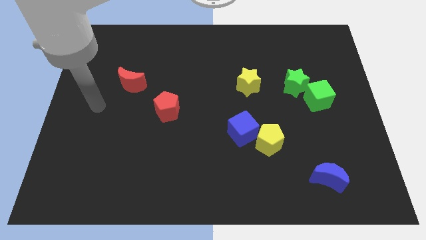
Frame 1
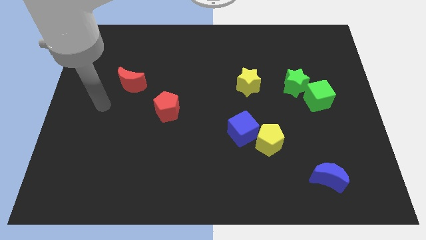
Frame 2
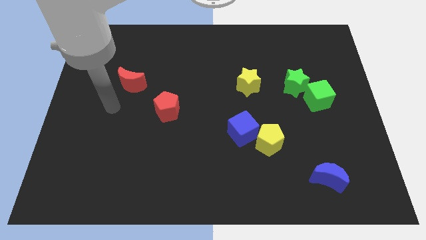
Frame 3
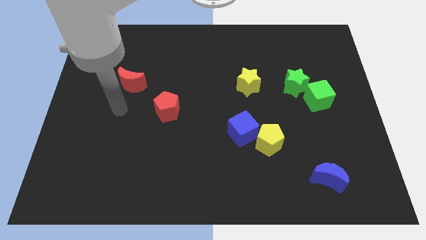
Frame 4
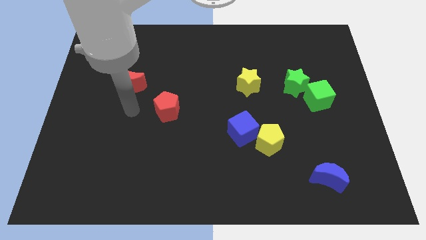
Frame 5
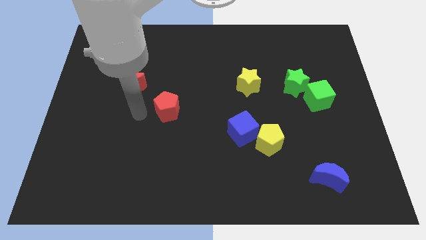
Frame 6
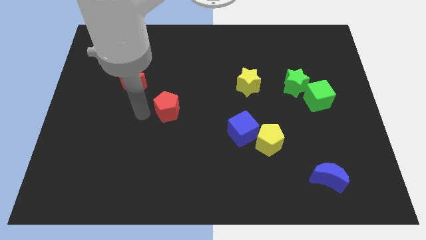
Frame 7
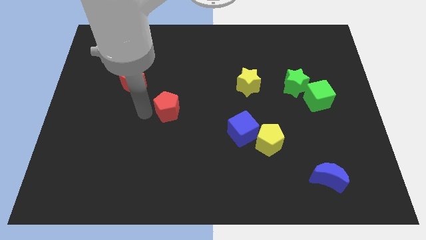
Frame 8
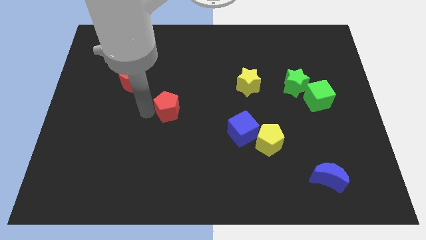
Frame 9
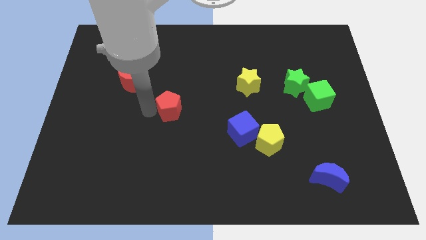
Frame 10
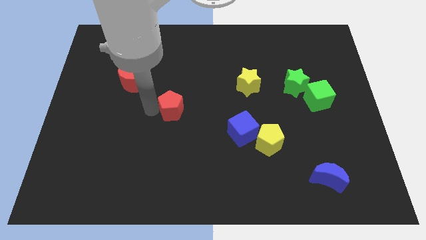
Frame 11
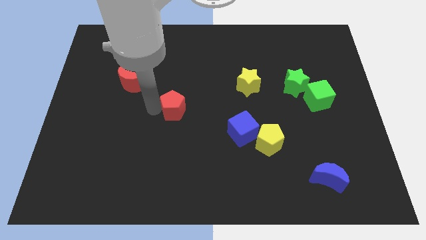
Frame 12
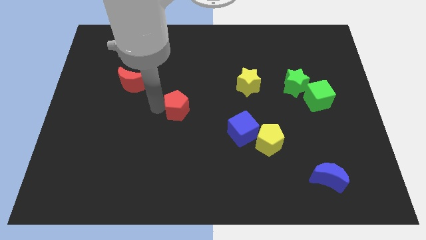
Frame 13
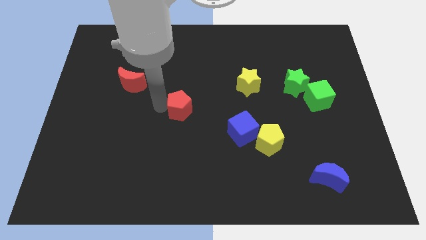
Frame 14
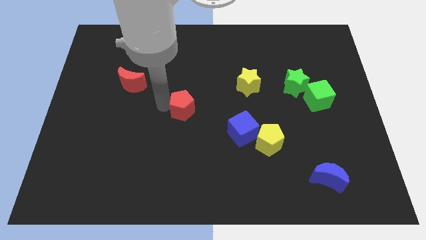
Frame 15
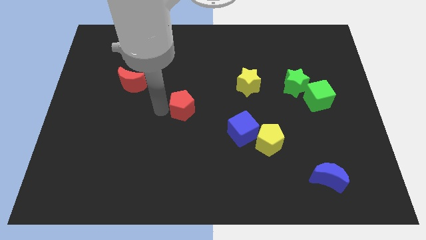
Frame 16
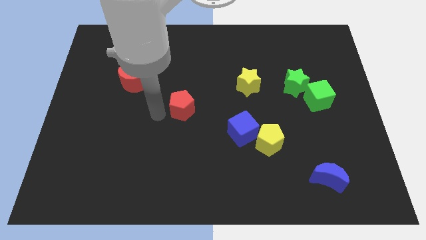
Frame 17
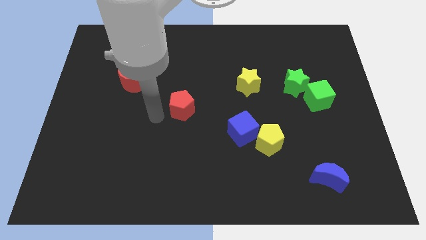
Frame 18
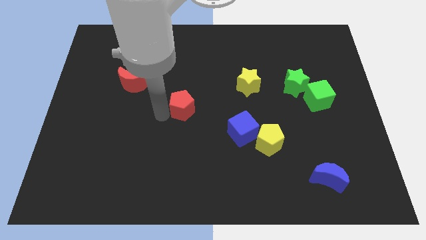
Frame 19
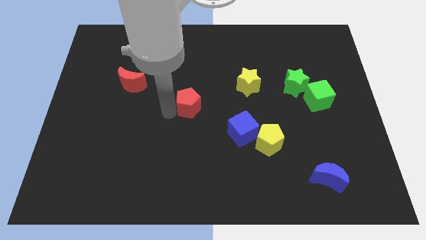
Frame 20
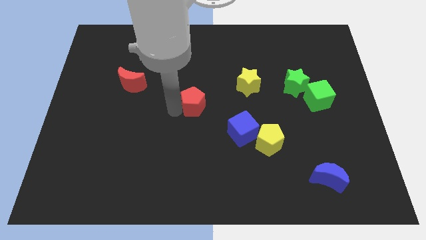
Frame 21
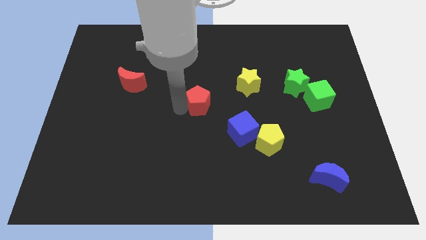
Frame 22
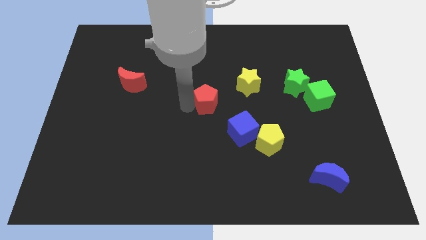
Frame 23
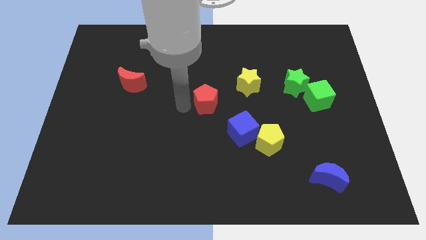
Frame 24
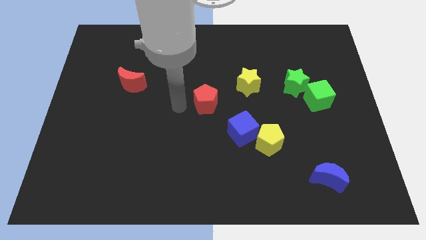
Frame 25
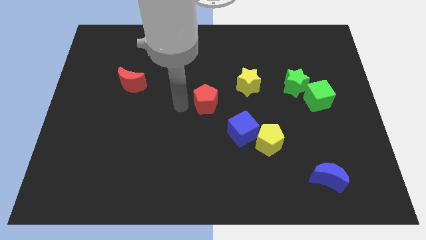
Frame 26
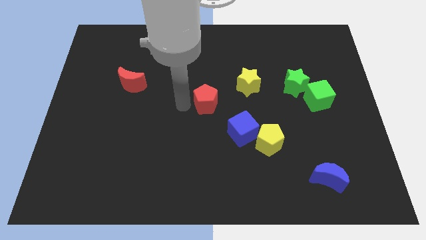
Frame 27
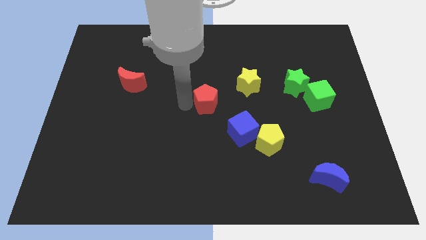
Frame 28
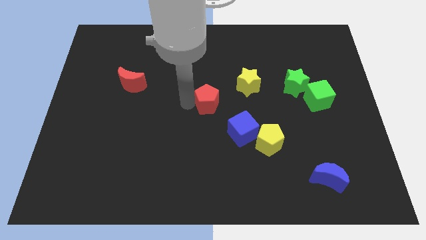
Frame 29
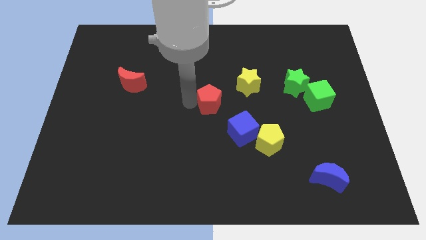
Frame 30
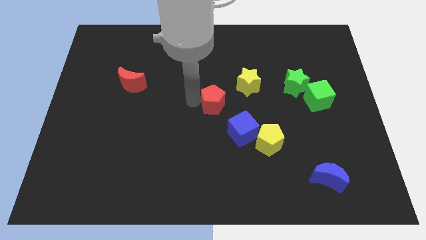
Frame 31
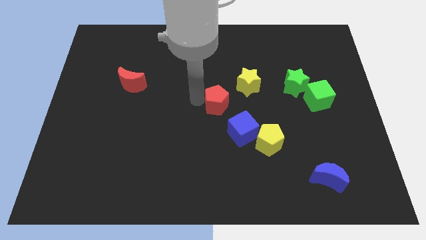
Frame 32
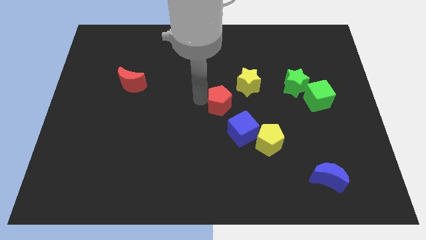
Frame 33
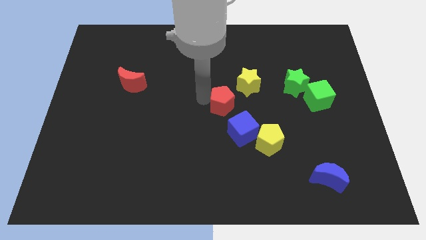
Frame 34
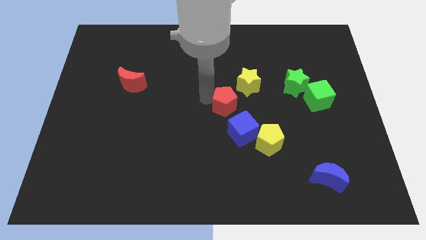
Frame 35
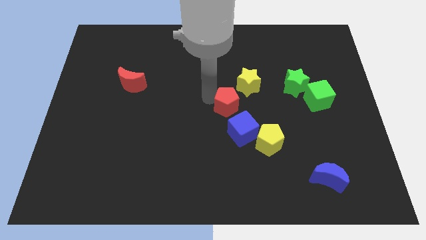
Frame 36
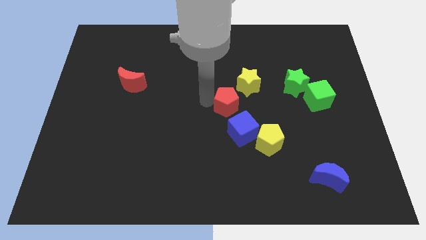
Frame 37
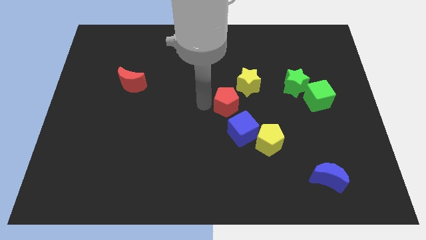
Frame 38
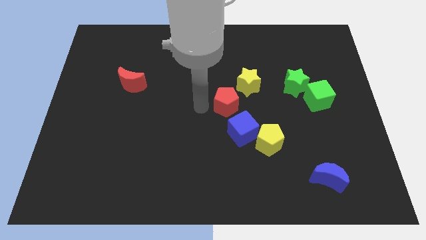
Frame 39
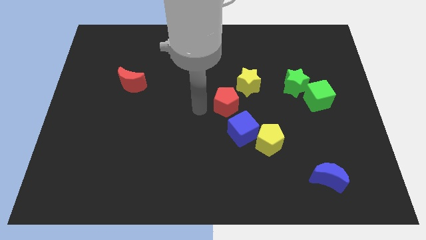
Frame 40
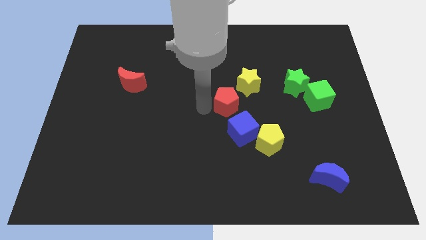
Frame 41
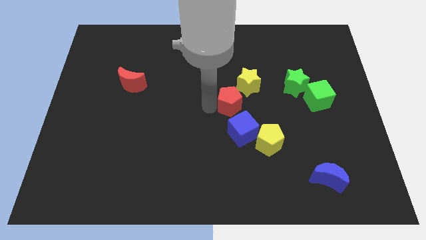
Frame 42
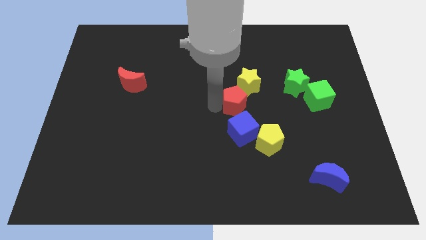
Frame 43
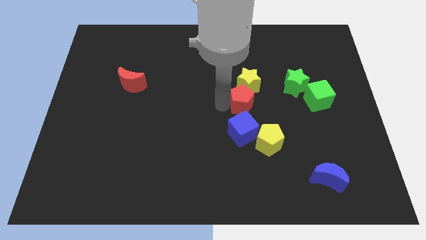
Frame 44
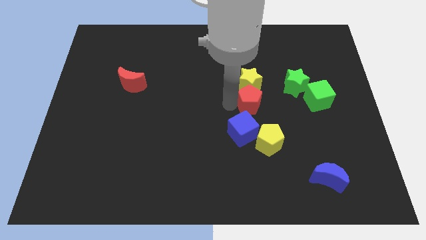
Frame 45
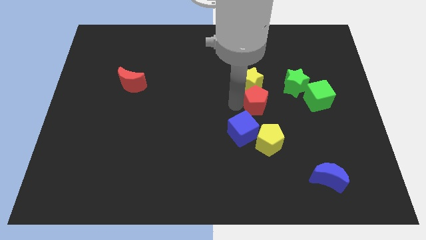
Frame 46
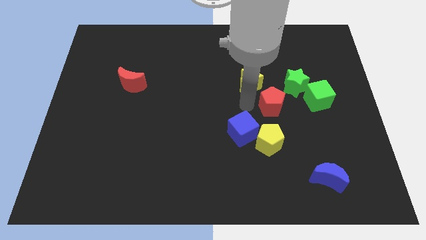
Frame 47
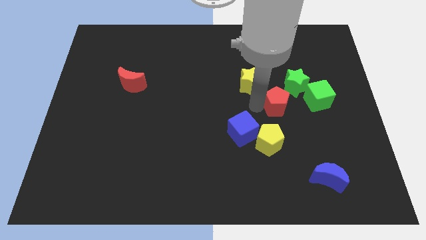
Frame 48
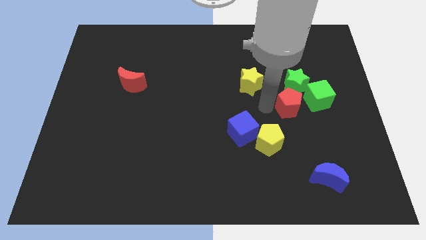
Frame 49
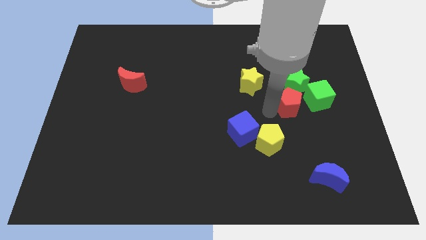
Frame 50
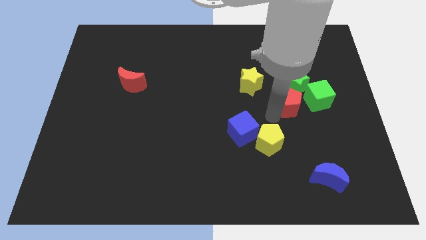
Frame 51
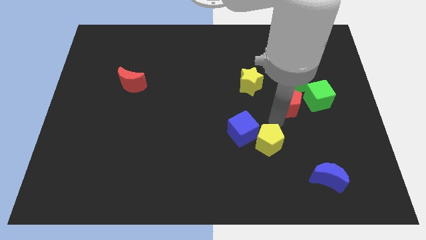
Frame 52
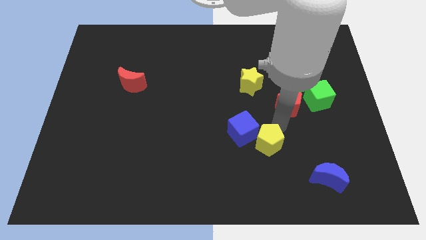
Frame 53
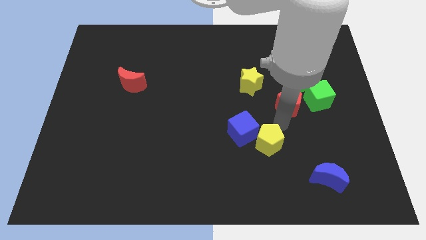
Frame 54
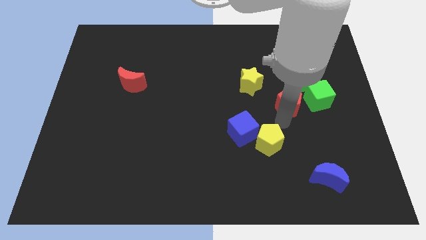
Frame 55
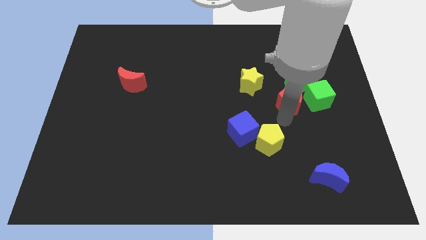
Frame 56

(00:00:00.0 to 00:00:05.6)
slide the red pentagon towards the green star

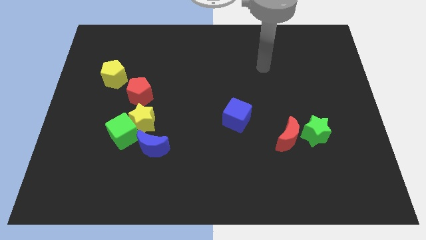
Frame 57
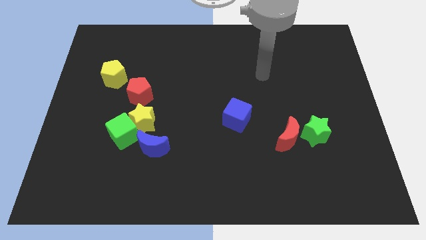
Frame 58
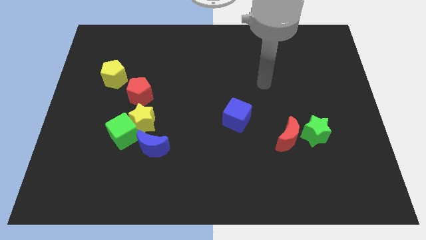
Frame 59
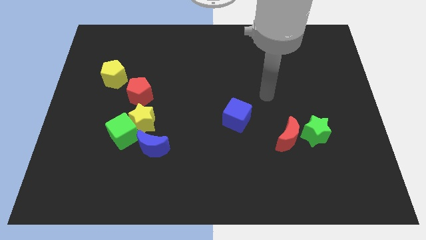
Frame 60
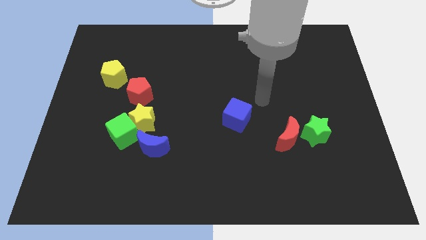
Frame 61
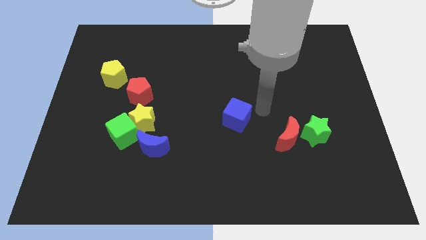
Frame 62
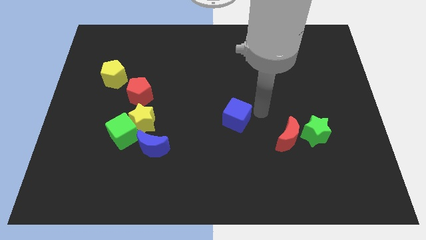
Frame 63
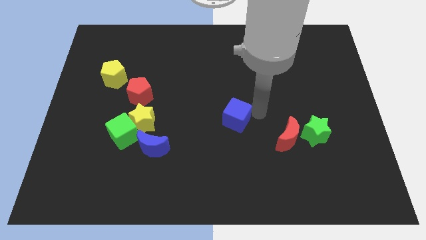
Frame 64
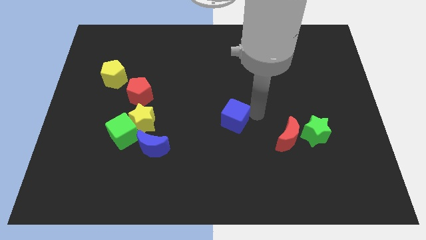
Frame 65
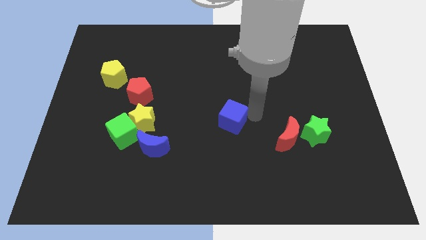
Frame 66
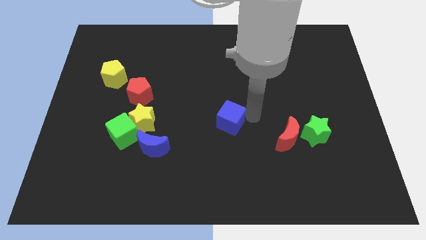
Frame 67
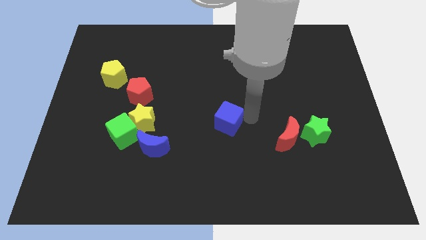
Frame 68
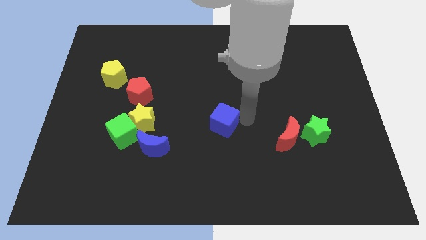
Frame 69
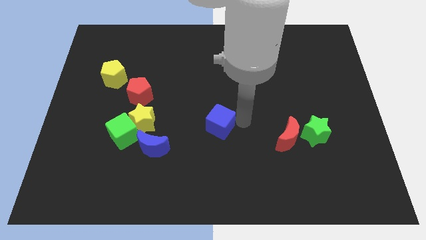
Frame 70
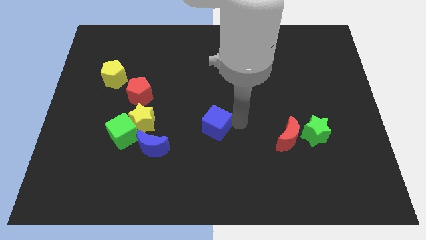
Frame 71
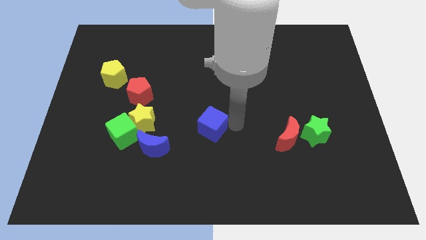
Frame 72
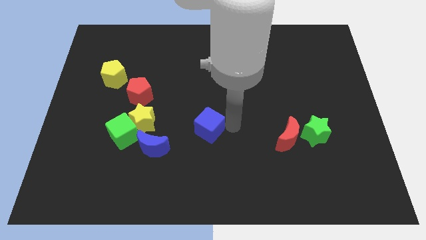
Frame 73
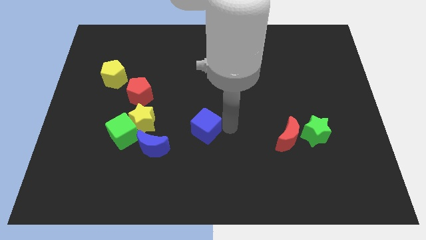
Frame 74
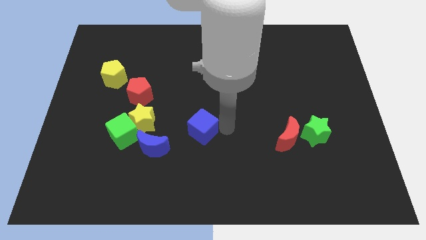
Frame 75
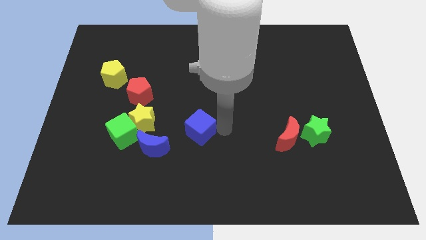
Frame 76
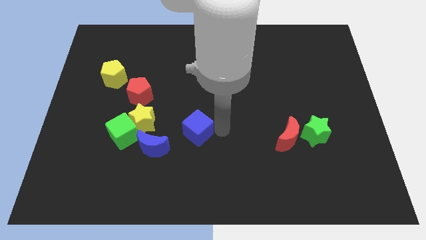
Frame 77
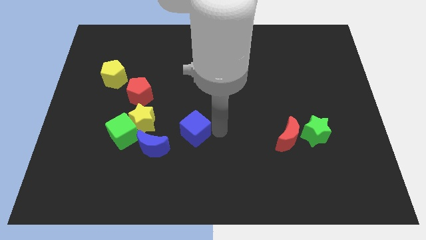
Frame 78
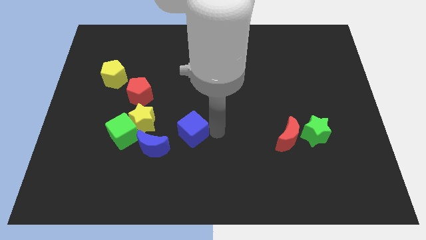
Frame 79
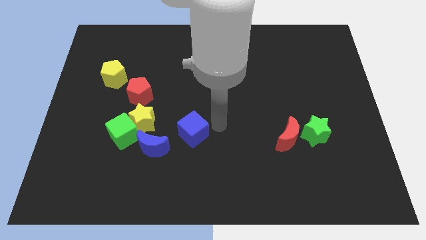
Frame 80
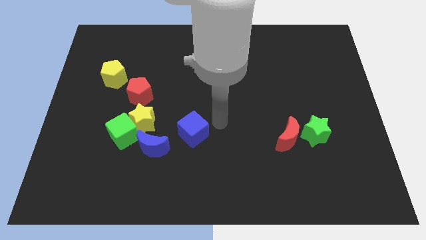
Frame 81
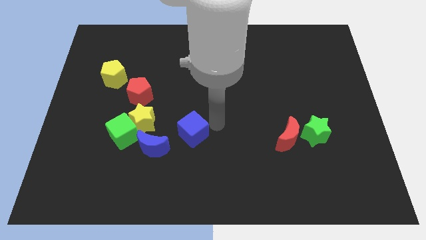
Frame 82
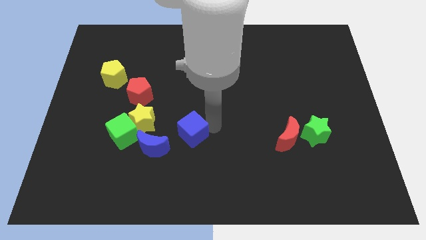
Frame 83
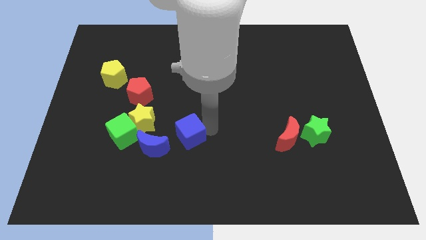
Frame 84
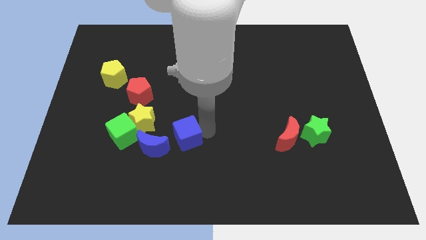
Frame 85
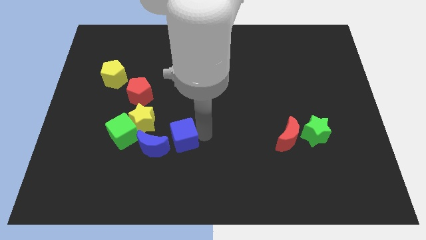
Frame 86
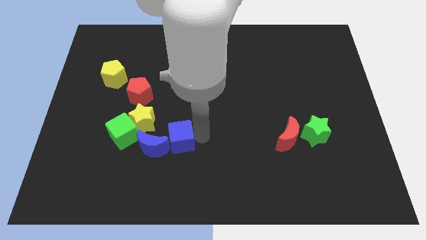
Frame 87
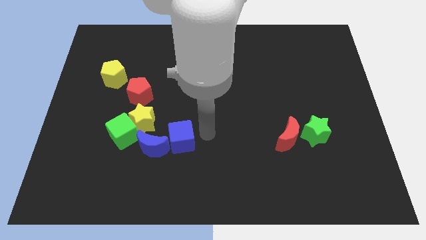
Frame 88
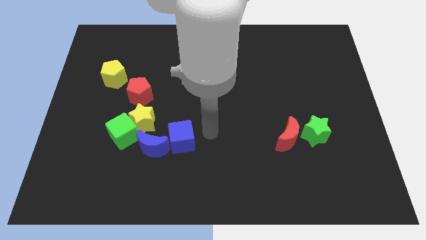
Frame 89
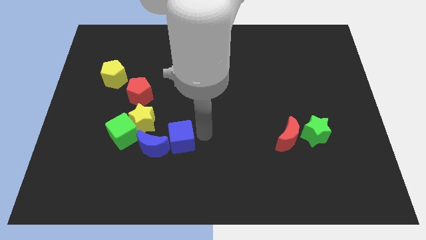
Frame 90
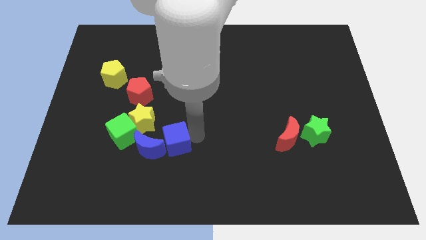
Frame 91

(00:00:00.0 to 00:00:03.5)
slide the blue cube towards the blue moon
